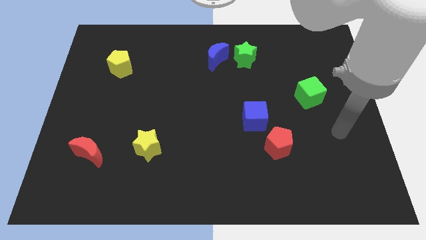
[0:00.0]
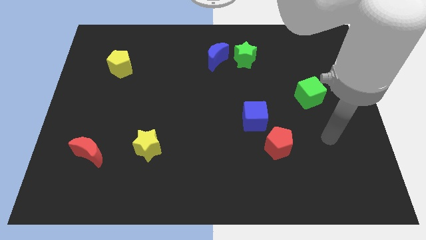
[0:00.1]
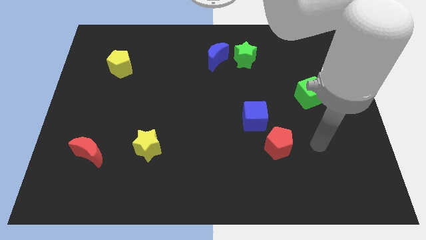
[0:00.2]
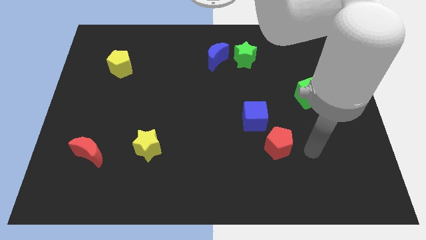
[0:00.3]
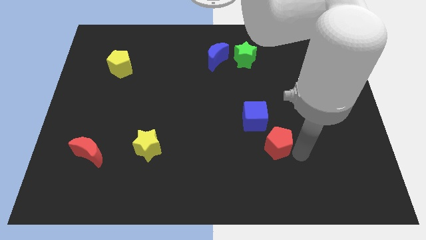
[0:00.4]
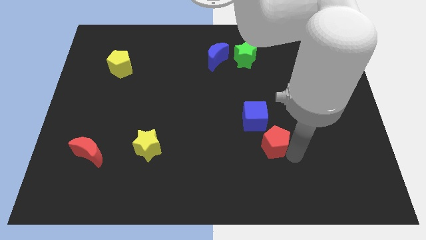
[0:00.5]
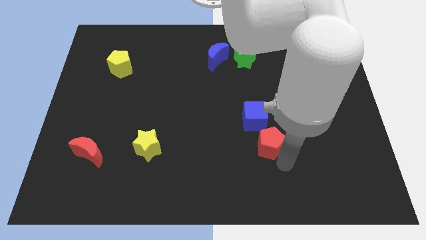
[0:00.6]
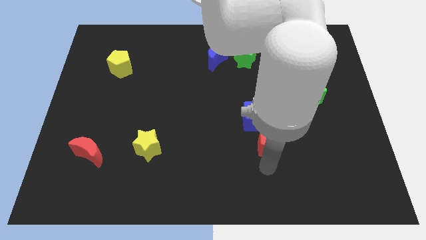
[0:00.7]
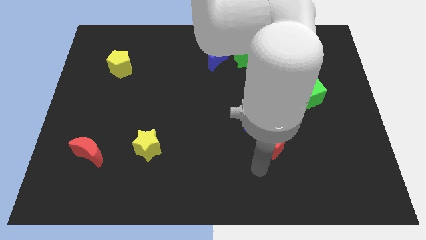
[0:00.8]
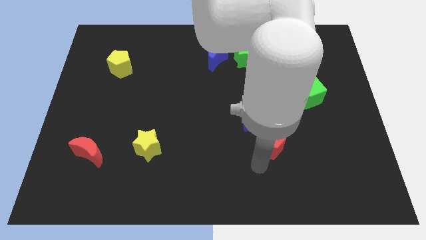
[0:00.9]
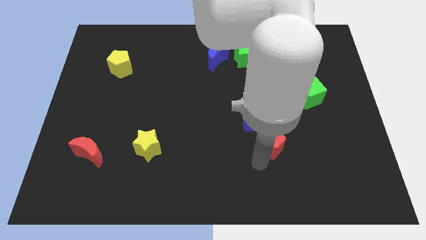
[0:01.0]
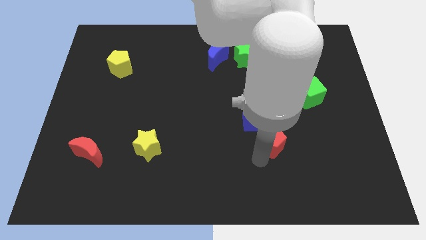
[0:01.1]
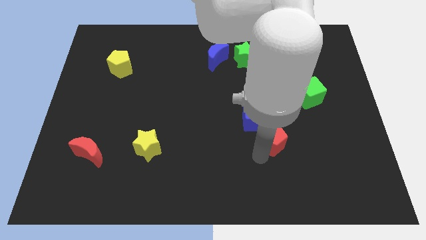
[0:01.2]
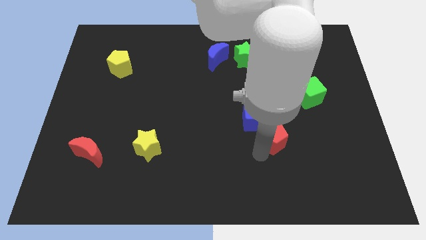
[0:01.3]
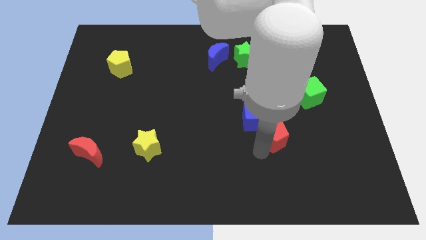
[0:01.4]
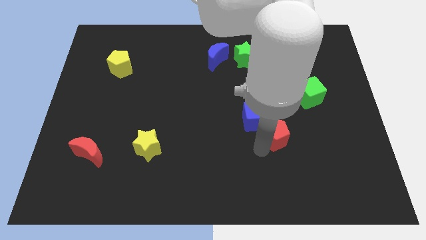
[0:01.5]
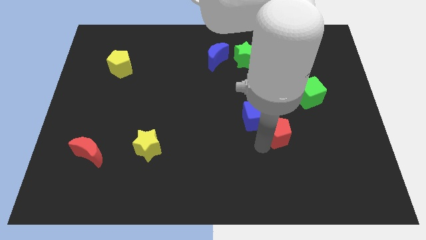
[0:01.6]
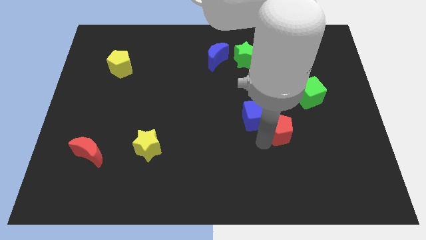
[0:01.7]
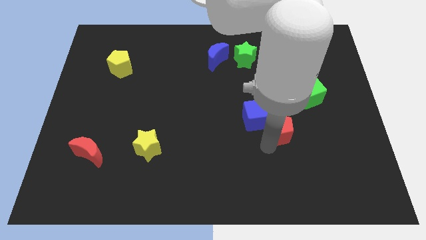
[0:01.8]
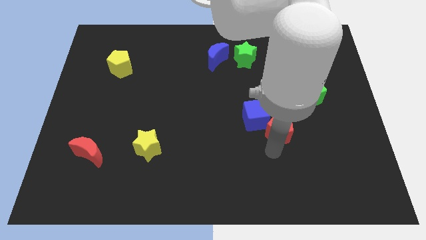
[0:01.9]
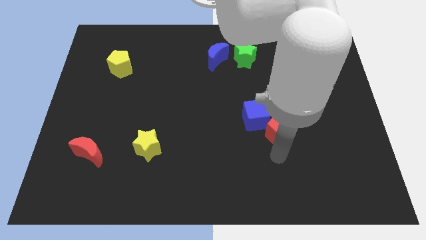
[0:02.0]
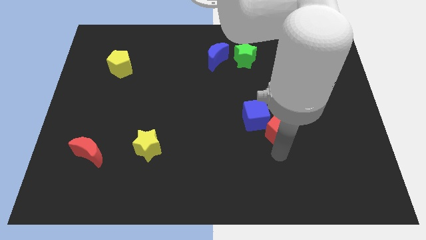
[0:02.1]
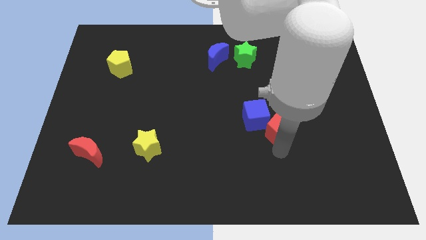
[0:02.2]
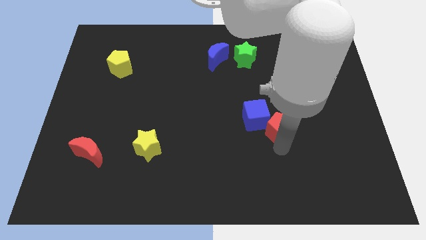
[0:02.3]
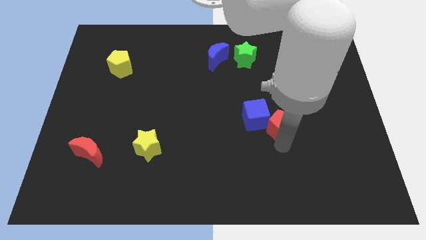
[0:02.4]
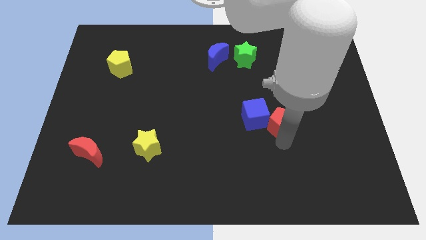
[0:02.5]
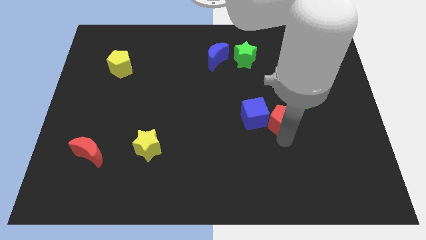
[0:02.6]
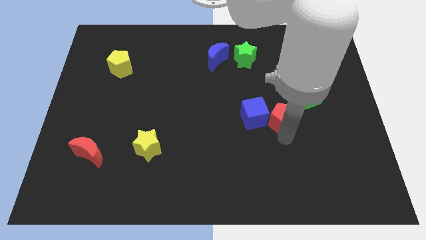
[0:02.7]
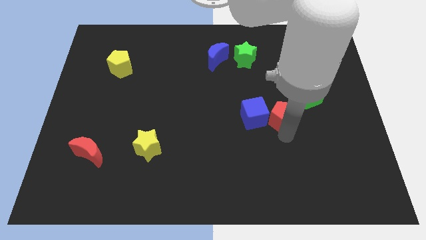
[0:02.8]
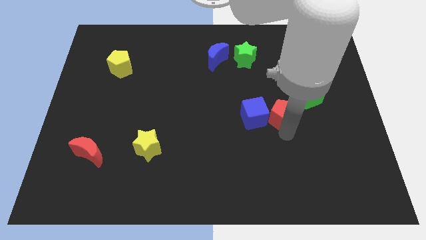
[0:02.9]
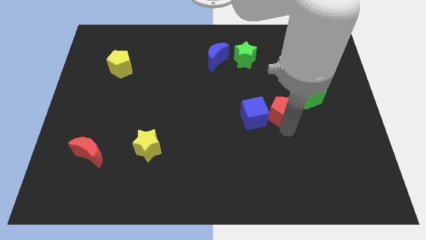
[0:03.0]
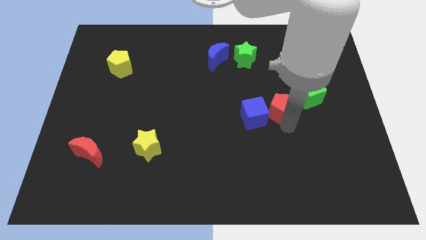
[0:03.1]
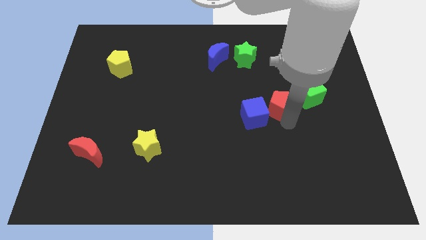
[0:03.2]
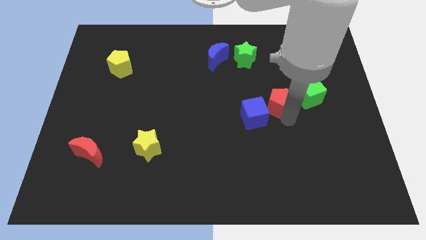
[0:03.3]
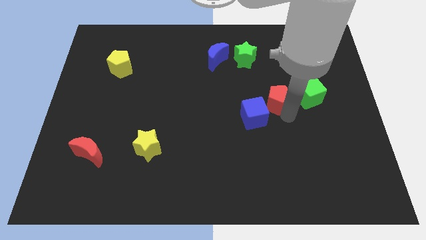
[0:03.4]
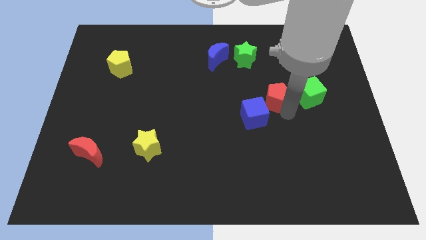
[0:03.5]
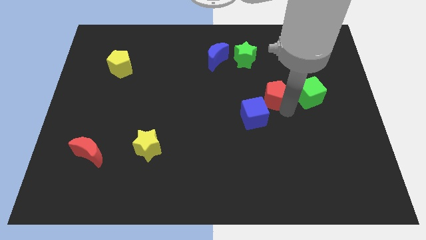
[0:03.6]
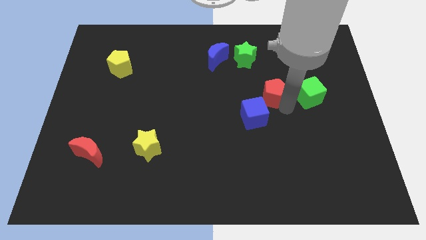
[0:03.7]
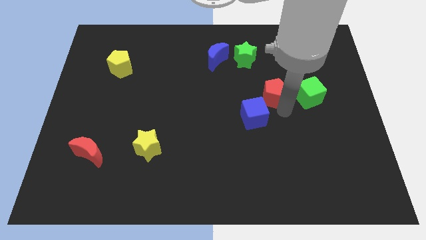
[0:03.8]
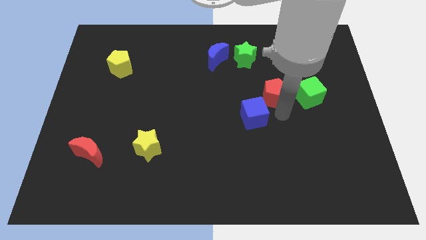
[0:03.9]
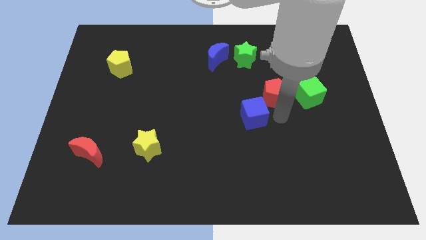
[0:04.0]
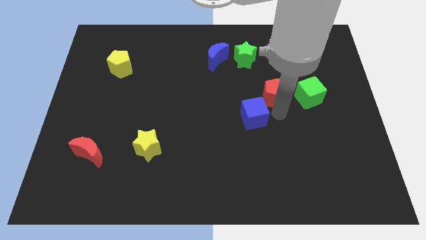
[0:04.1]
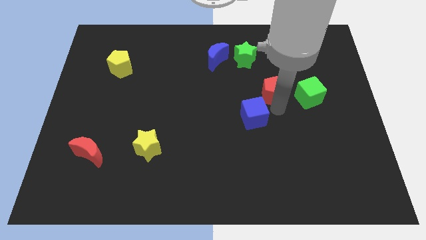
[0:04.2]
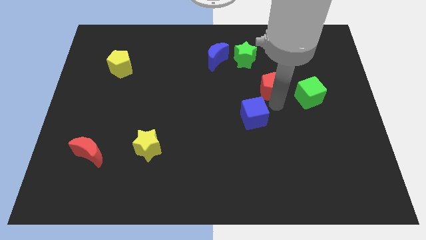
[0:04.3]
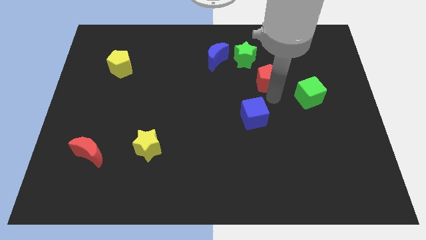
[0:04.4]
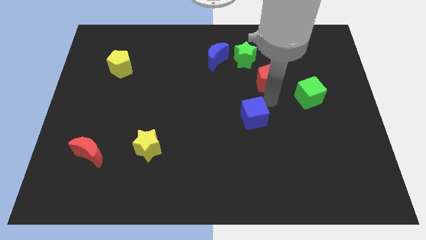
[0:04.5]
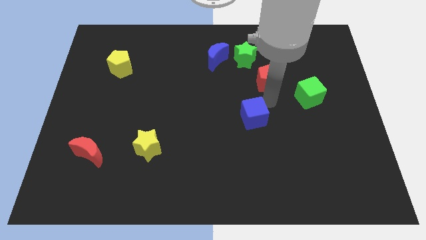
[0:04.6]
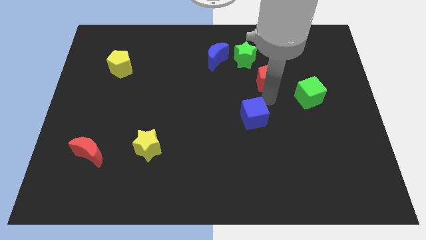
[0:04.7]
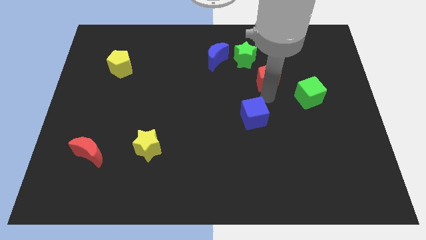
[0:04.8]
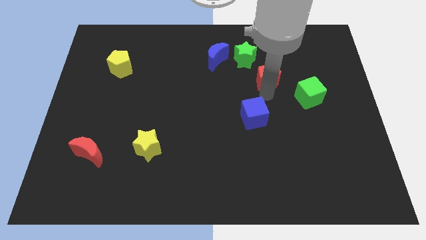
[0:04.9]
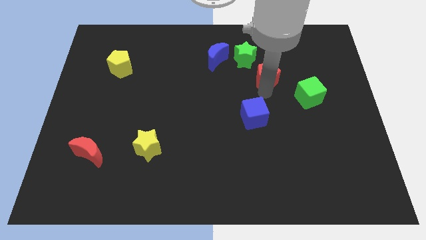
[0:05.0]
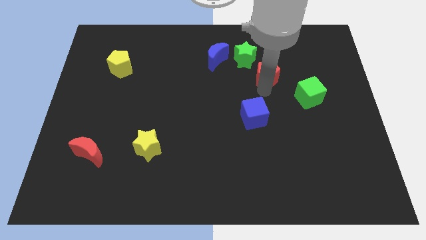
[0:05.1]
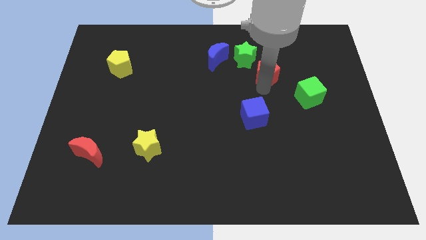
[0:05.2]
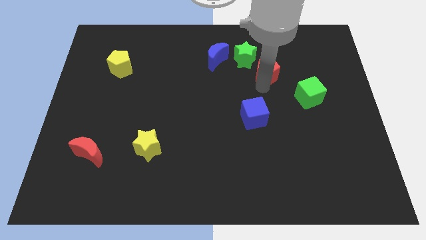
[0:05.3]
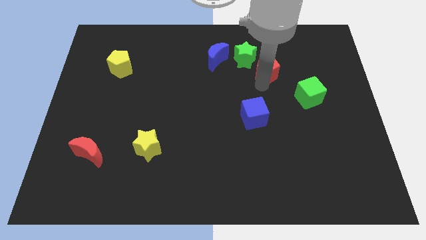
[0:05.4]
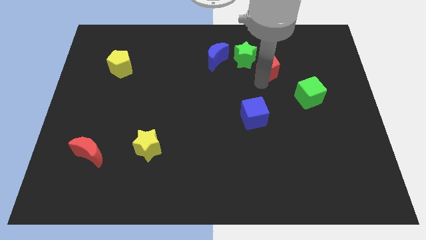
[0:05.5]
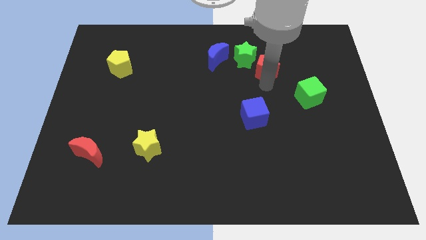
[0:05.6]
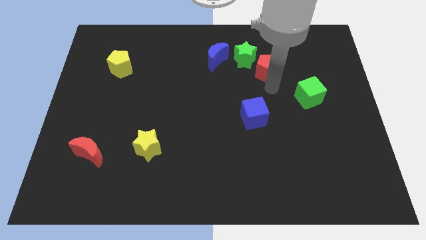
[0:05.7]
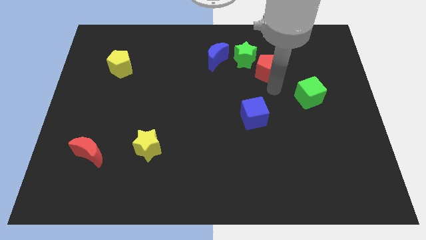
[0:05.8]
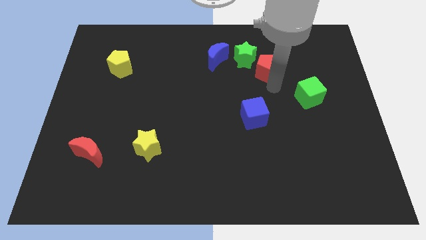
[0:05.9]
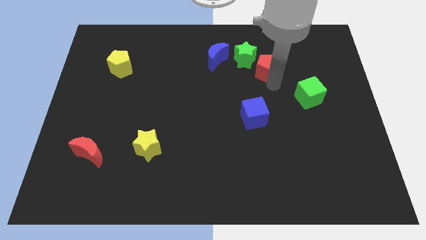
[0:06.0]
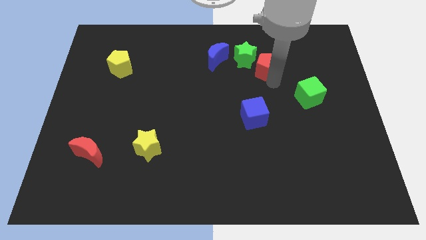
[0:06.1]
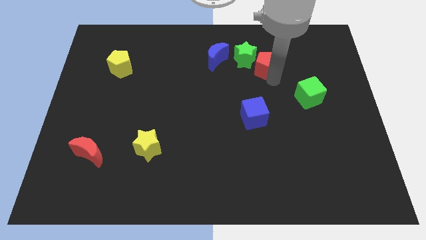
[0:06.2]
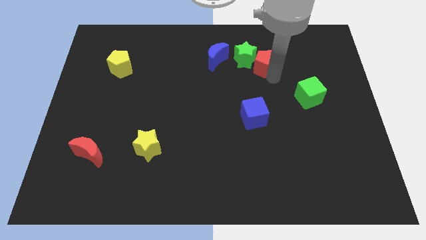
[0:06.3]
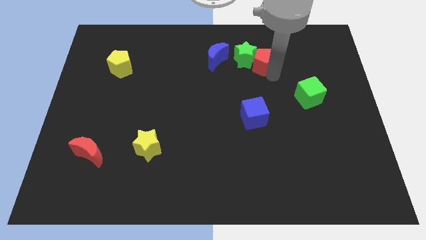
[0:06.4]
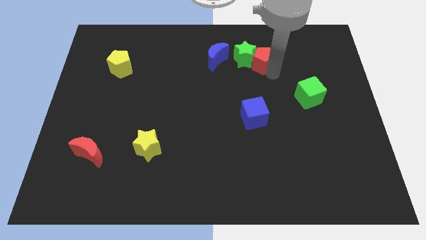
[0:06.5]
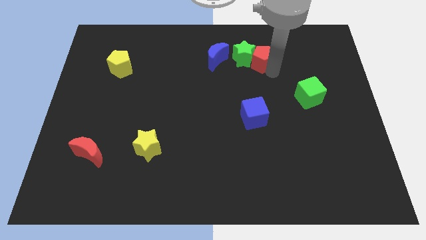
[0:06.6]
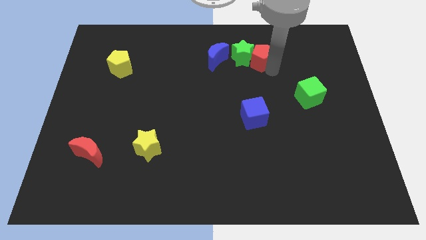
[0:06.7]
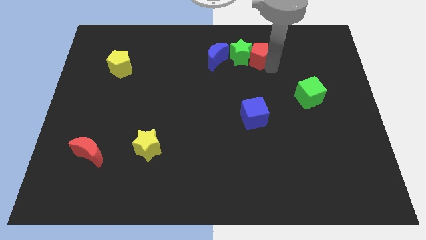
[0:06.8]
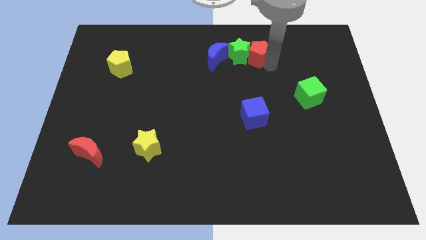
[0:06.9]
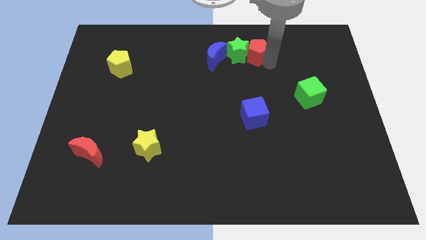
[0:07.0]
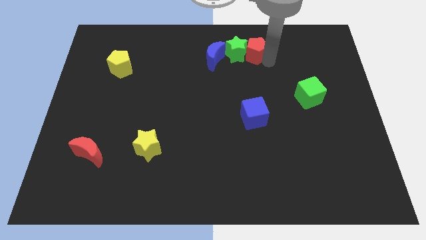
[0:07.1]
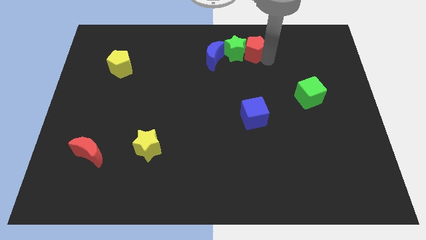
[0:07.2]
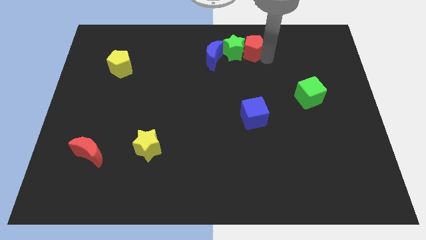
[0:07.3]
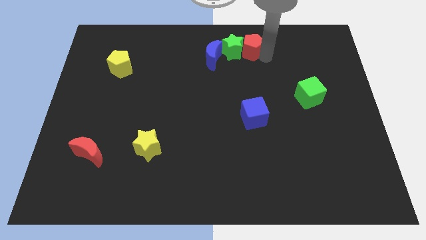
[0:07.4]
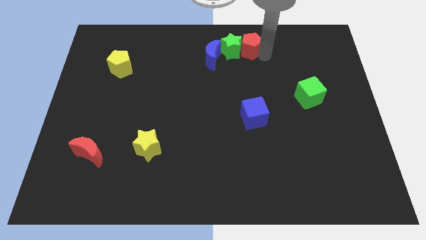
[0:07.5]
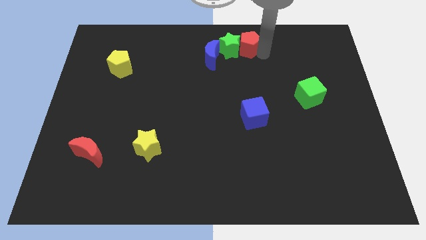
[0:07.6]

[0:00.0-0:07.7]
push the red pentagon to the top
